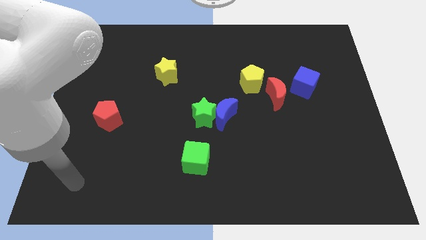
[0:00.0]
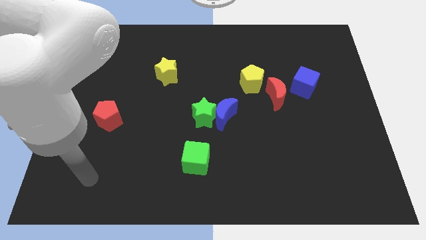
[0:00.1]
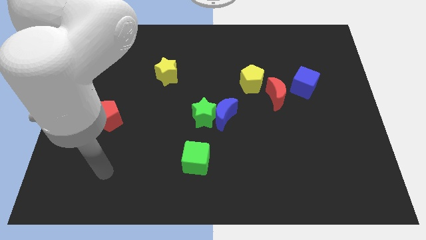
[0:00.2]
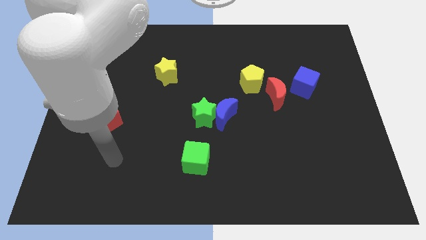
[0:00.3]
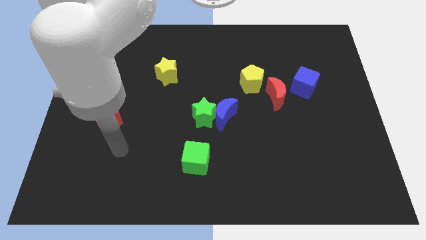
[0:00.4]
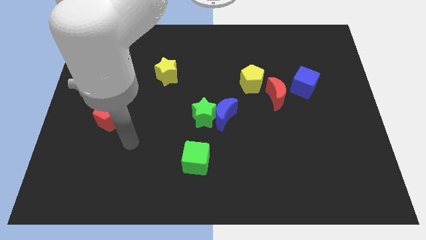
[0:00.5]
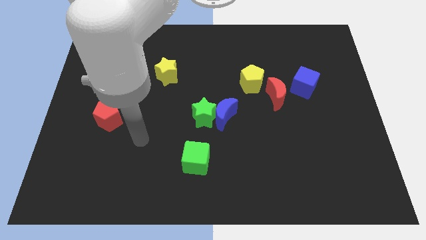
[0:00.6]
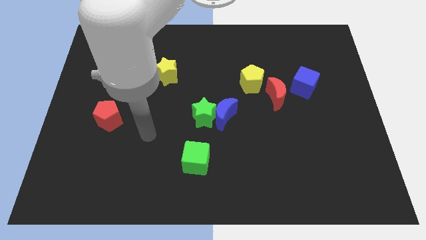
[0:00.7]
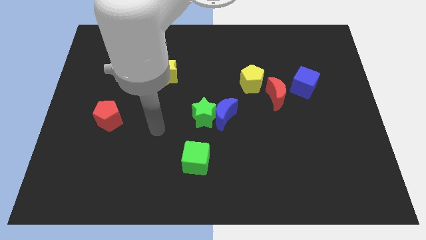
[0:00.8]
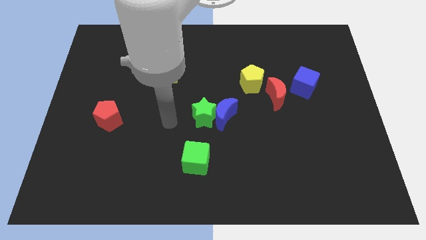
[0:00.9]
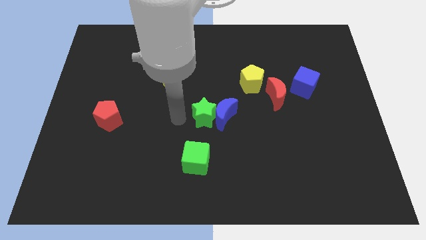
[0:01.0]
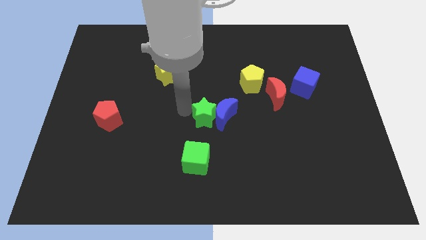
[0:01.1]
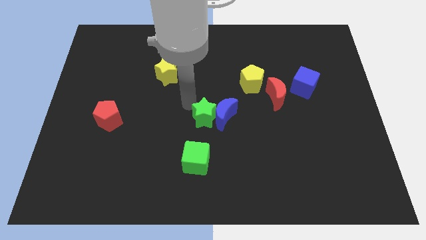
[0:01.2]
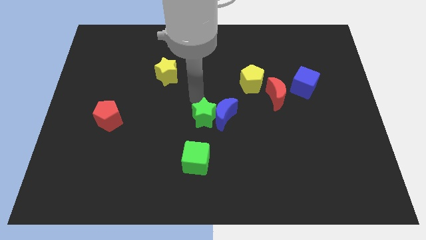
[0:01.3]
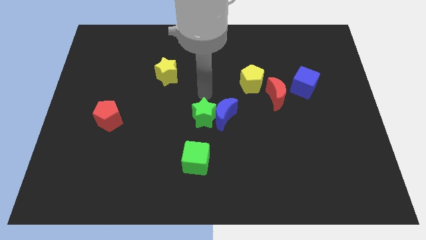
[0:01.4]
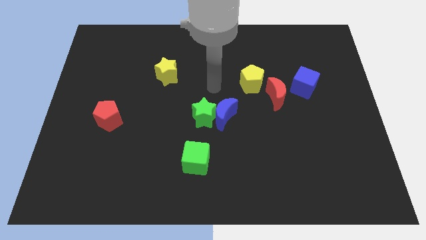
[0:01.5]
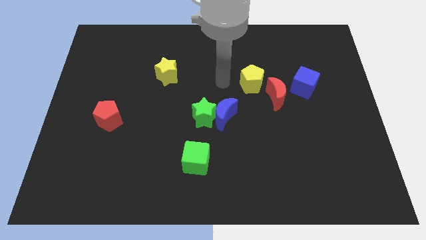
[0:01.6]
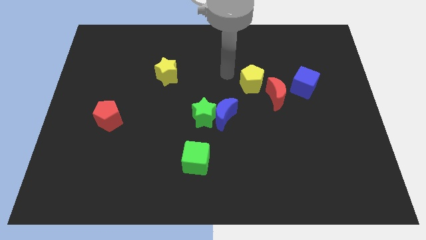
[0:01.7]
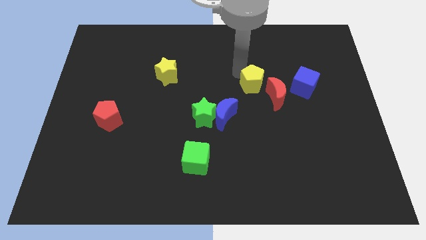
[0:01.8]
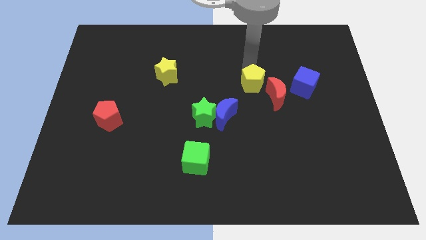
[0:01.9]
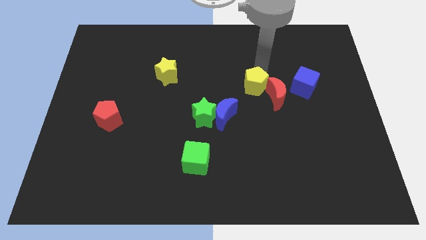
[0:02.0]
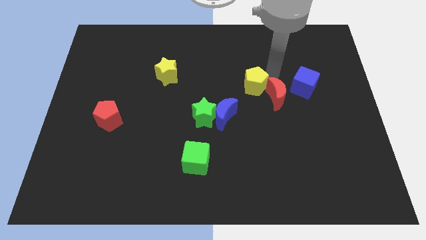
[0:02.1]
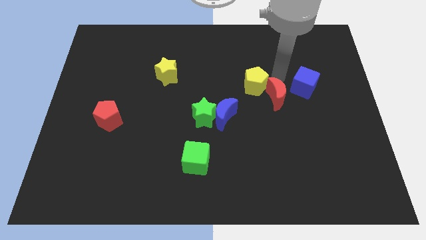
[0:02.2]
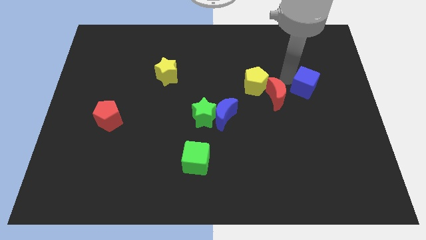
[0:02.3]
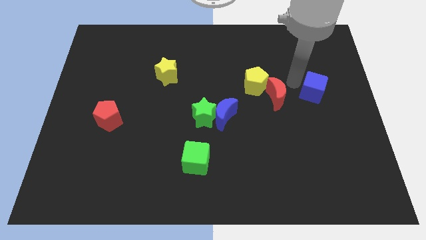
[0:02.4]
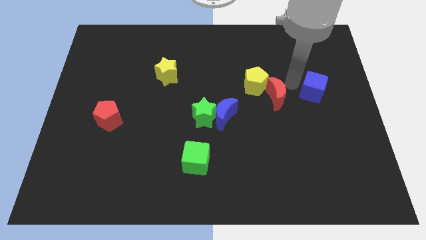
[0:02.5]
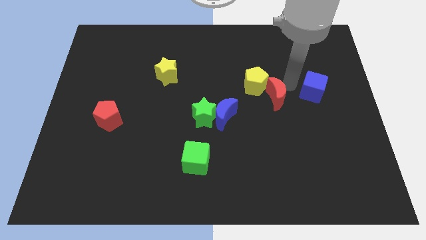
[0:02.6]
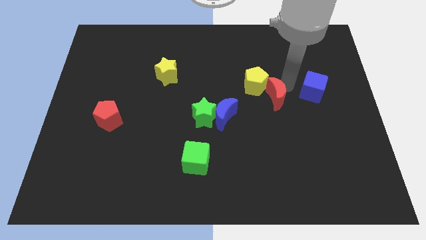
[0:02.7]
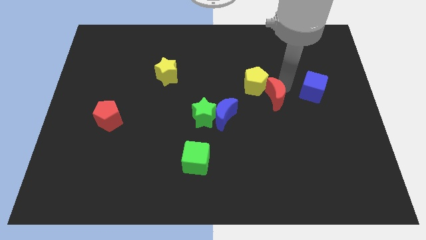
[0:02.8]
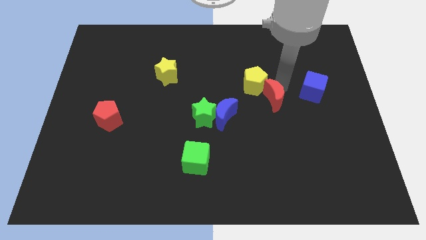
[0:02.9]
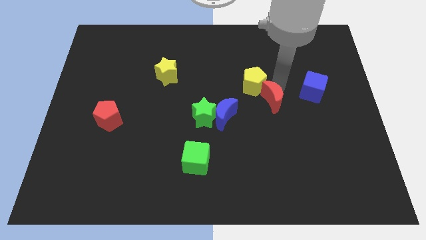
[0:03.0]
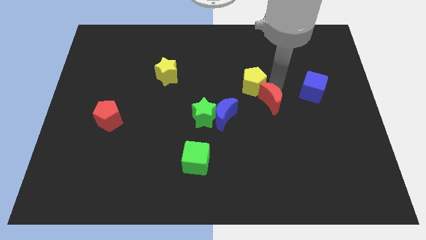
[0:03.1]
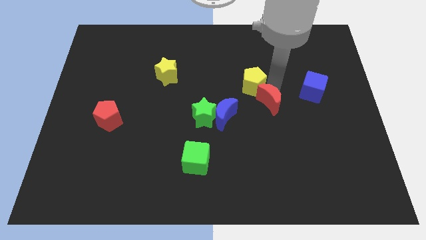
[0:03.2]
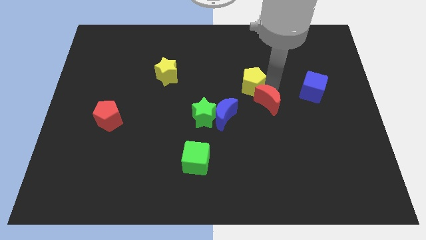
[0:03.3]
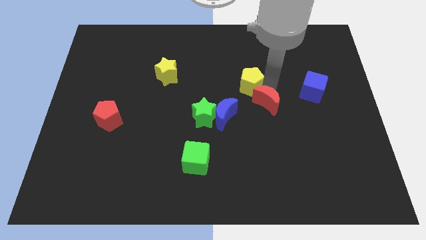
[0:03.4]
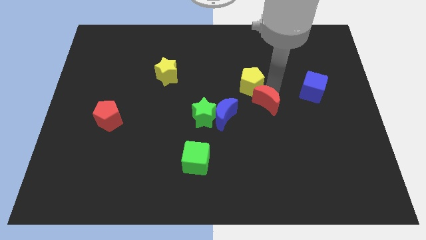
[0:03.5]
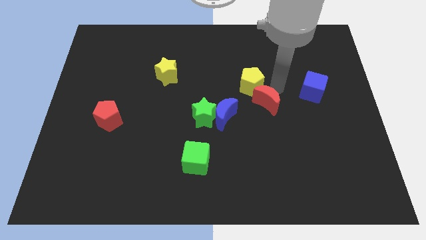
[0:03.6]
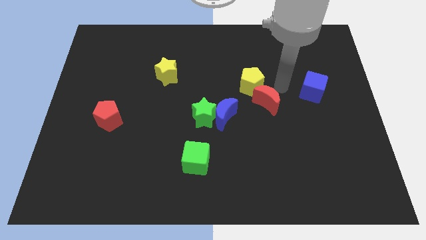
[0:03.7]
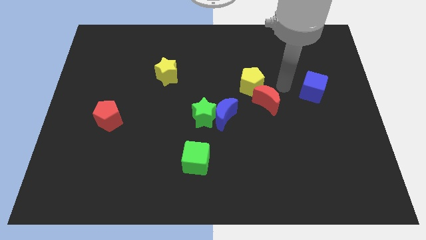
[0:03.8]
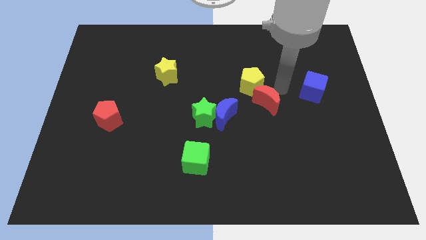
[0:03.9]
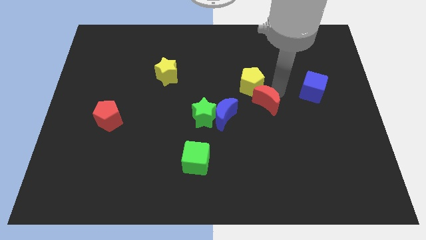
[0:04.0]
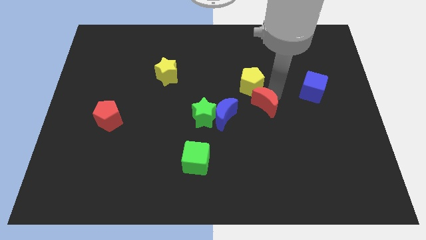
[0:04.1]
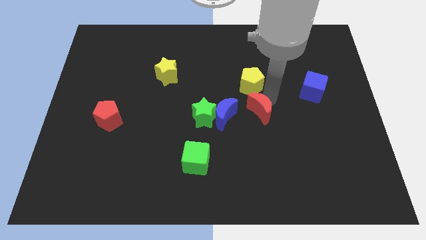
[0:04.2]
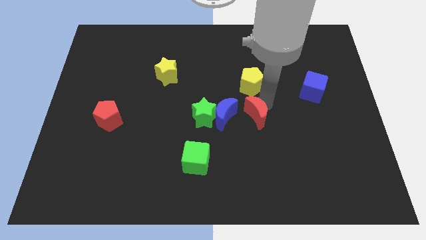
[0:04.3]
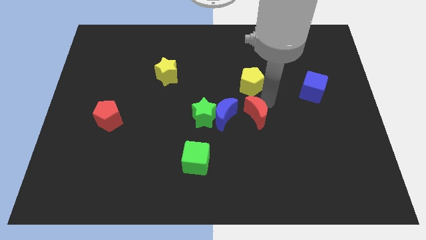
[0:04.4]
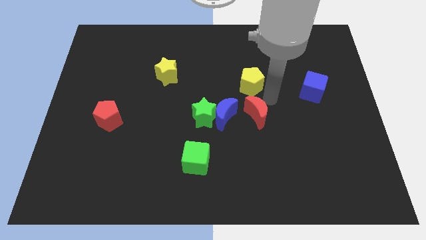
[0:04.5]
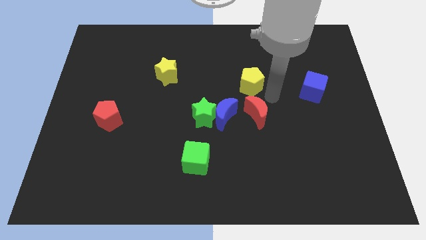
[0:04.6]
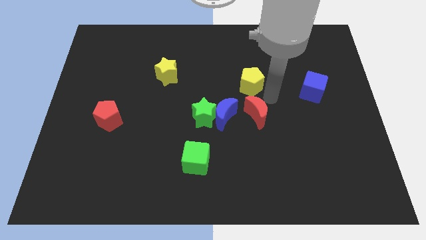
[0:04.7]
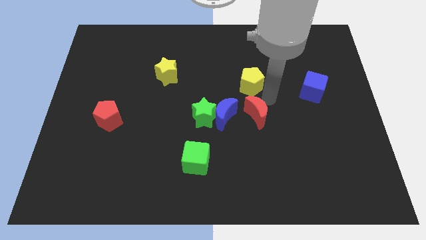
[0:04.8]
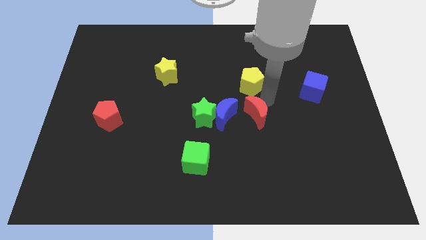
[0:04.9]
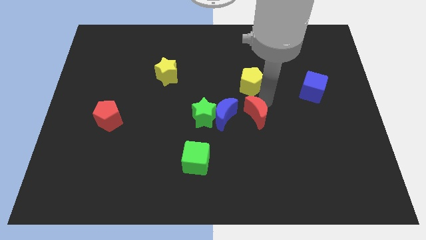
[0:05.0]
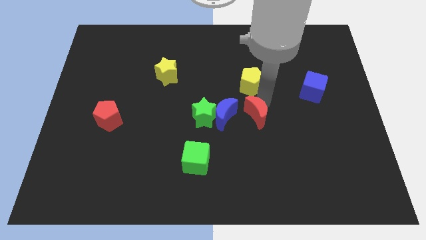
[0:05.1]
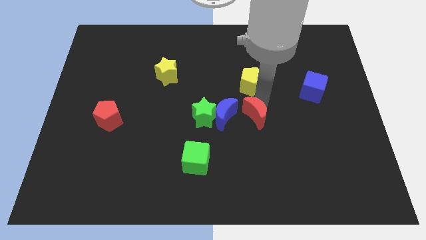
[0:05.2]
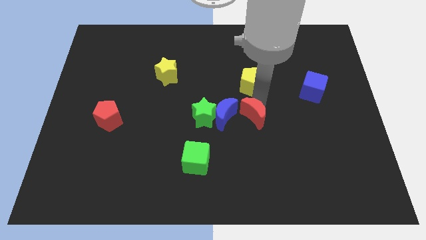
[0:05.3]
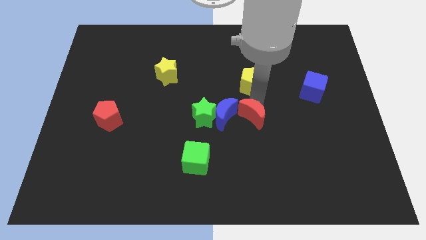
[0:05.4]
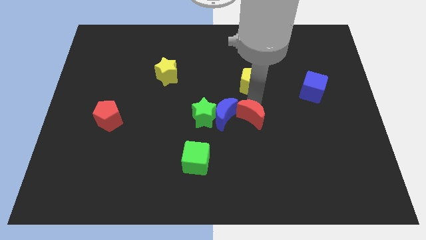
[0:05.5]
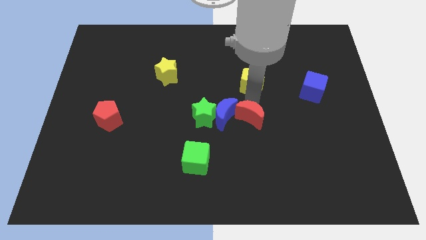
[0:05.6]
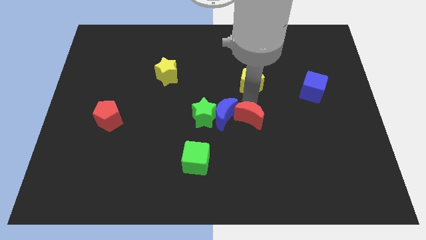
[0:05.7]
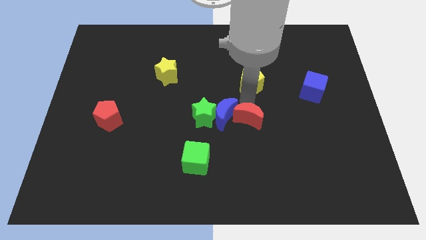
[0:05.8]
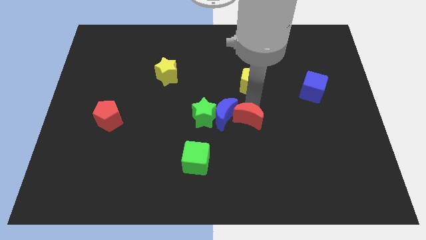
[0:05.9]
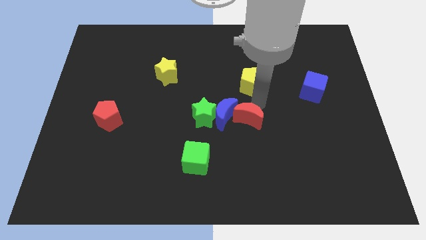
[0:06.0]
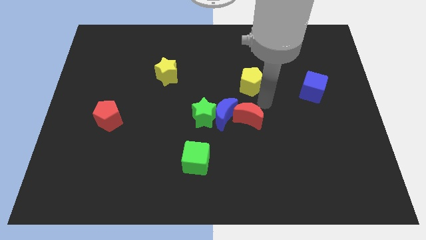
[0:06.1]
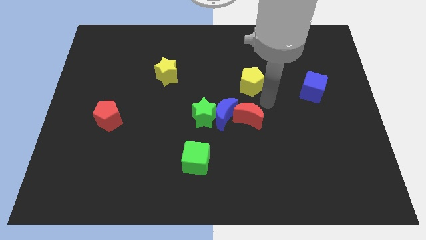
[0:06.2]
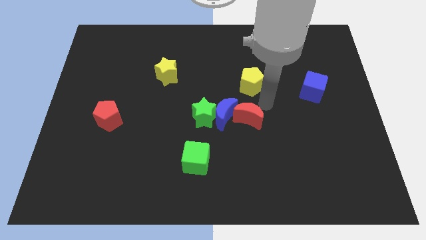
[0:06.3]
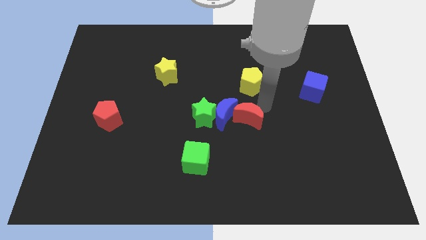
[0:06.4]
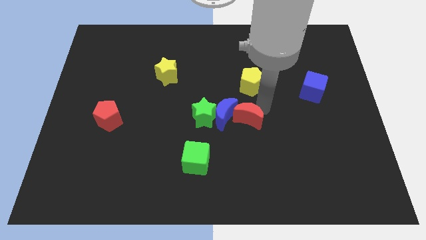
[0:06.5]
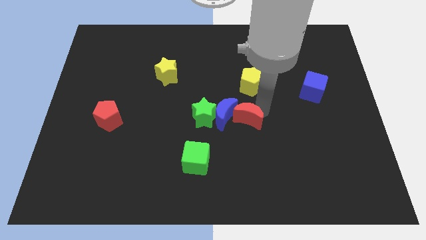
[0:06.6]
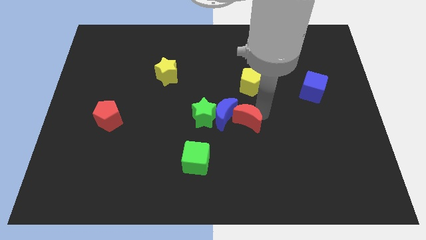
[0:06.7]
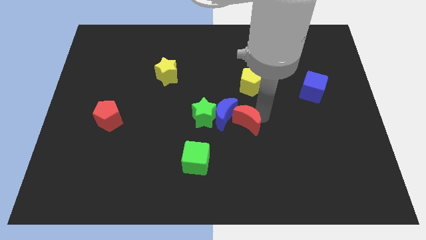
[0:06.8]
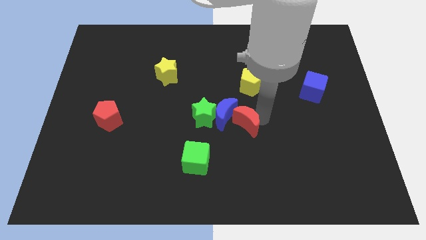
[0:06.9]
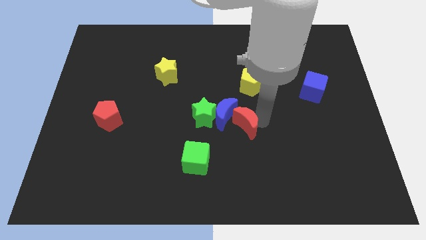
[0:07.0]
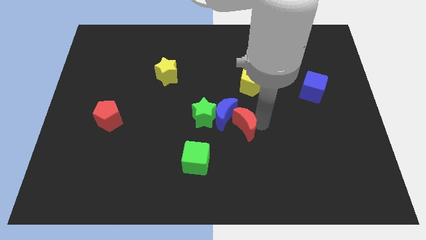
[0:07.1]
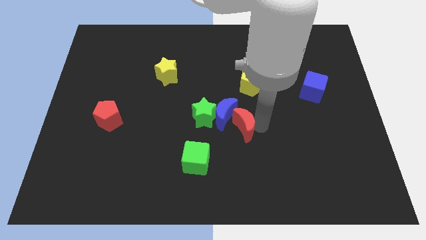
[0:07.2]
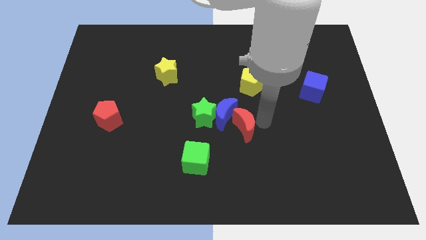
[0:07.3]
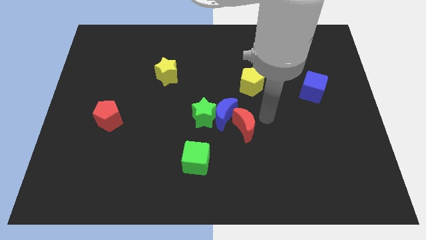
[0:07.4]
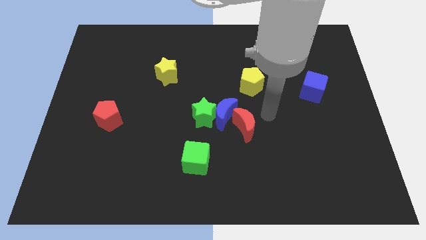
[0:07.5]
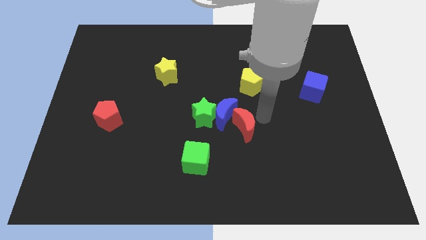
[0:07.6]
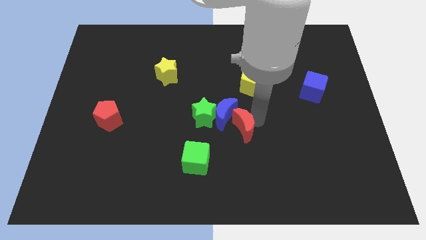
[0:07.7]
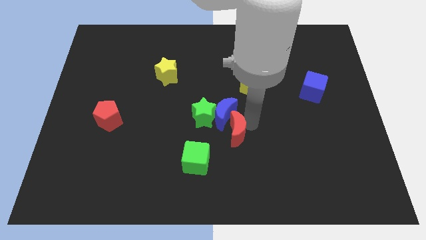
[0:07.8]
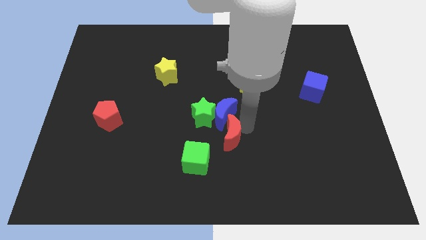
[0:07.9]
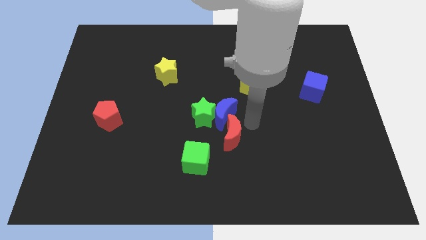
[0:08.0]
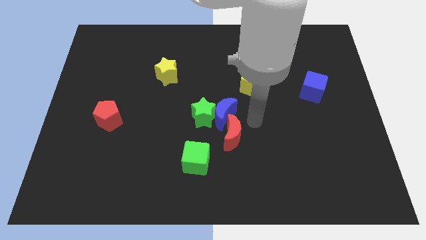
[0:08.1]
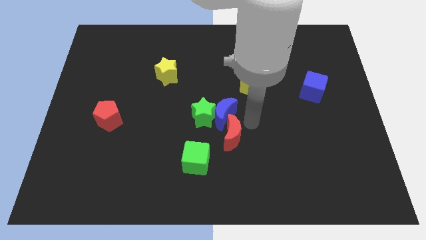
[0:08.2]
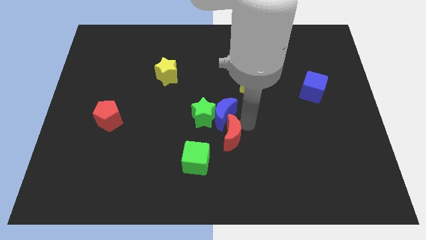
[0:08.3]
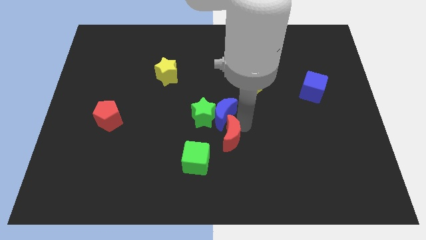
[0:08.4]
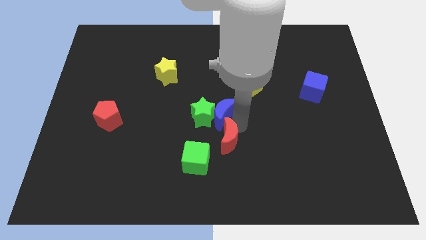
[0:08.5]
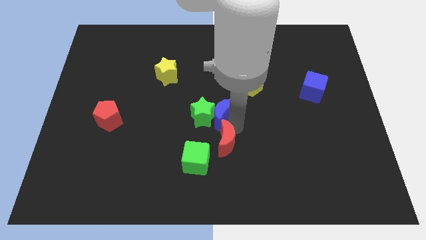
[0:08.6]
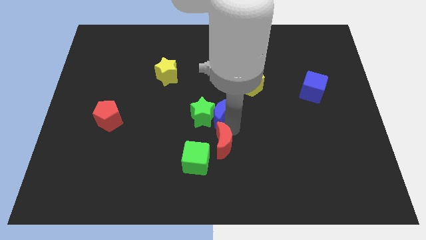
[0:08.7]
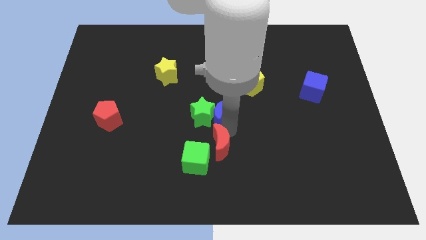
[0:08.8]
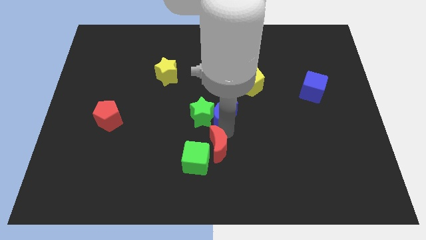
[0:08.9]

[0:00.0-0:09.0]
move the red moon next to the green cube
